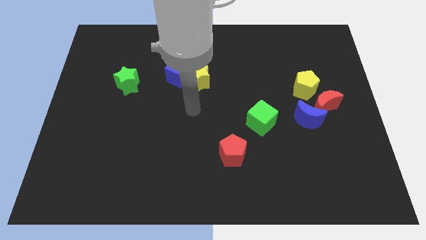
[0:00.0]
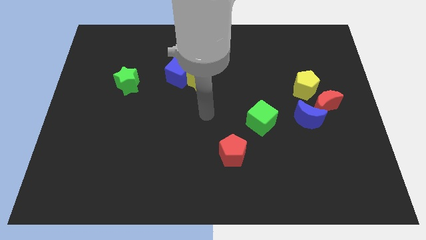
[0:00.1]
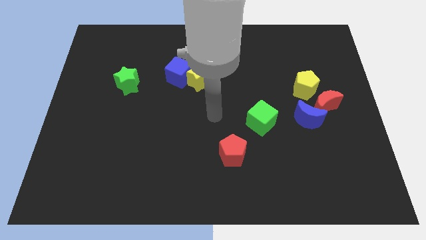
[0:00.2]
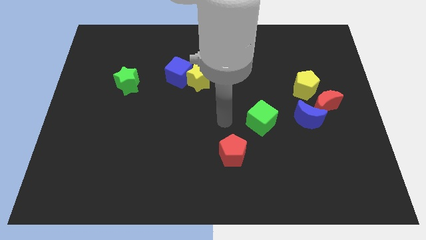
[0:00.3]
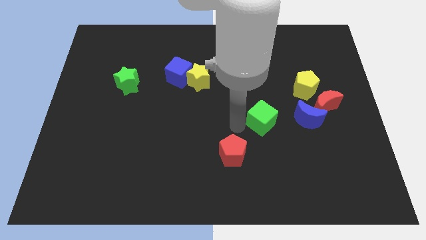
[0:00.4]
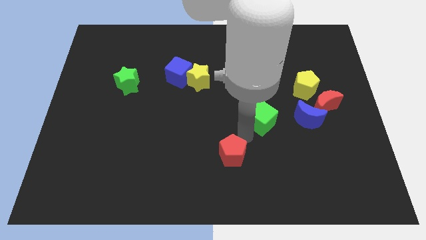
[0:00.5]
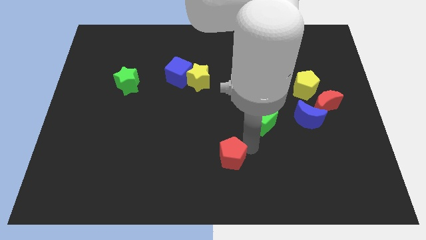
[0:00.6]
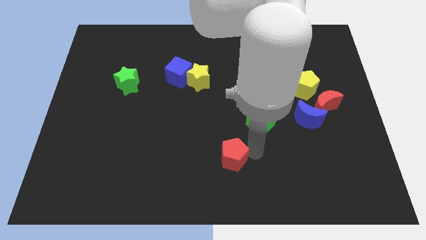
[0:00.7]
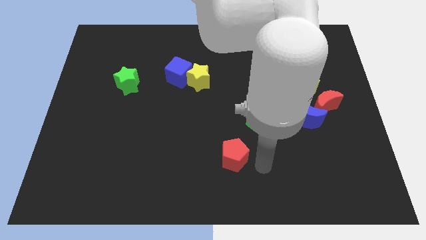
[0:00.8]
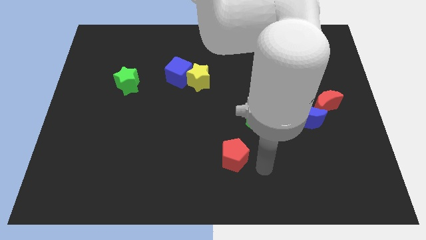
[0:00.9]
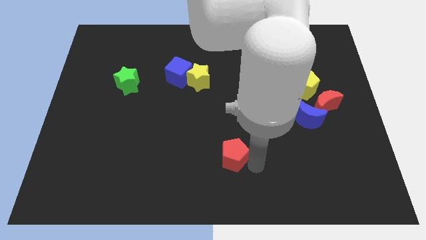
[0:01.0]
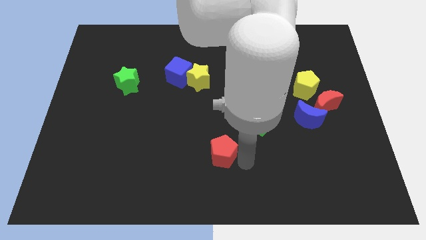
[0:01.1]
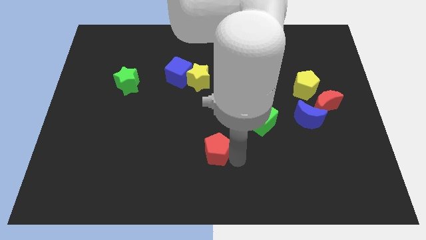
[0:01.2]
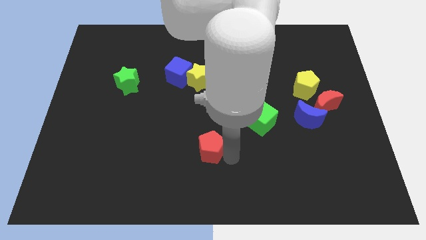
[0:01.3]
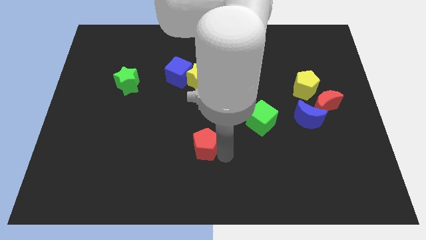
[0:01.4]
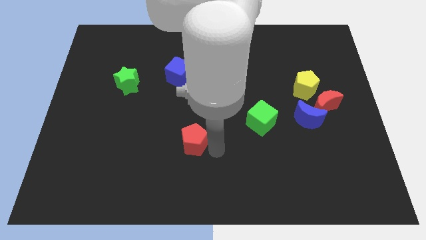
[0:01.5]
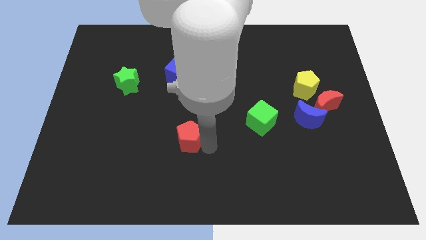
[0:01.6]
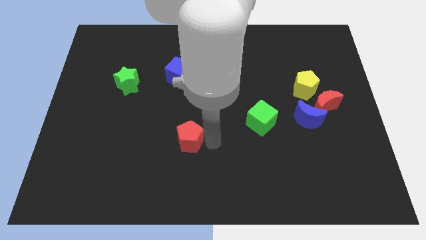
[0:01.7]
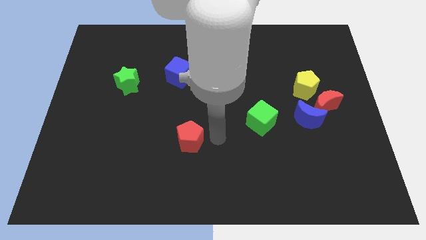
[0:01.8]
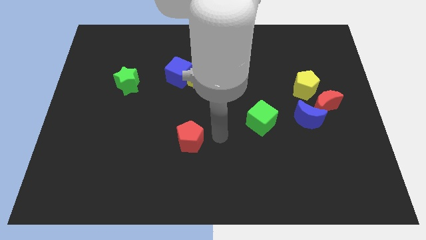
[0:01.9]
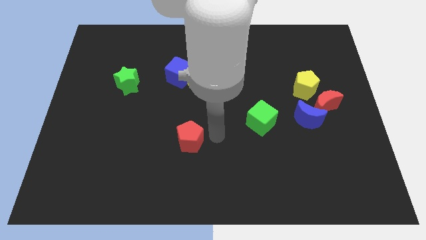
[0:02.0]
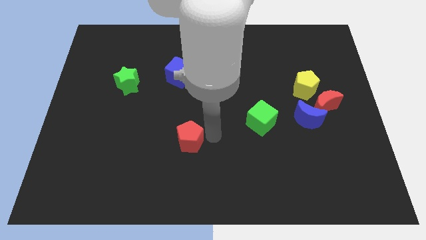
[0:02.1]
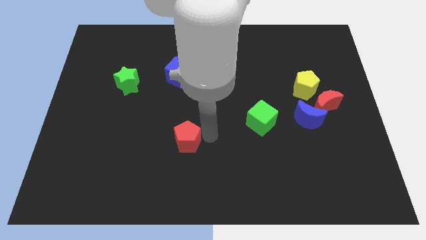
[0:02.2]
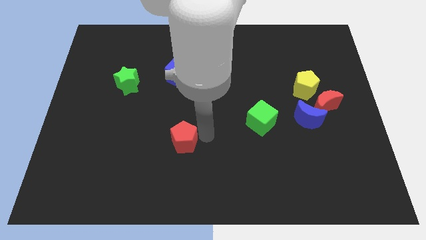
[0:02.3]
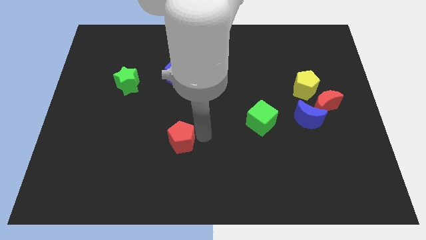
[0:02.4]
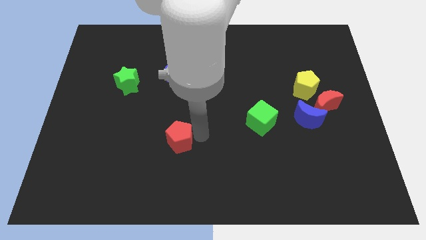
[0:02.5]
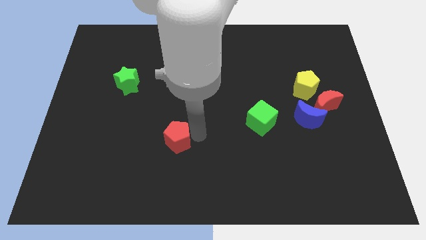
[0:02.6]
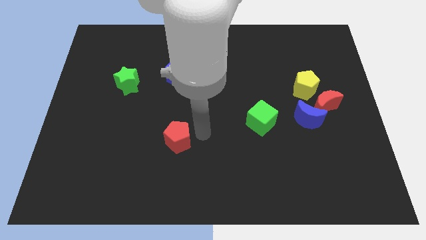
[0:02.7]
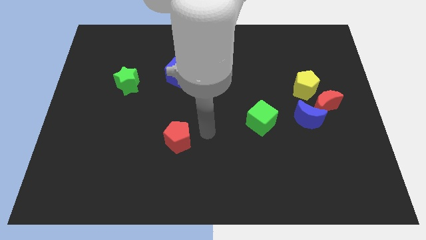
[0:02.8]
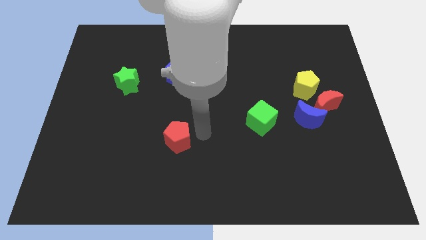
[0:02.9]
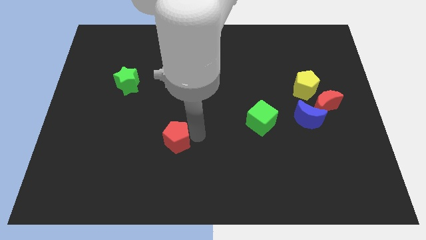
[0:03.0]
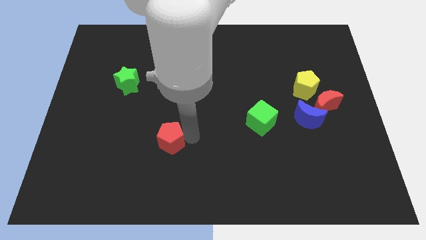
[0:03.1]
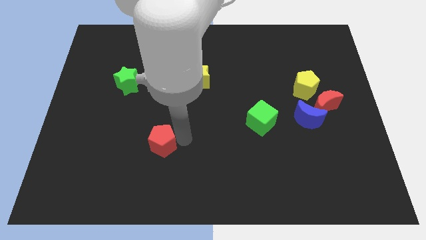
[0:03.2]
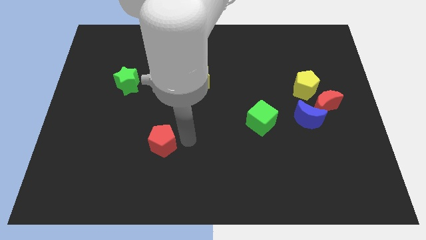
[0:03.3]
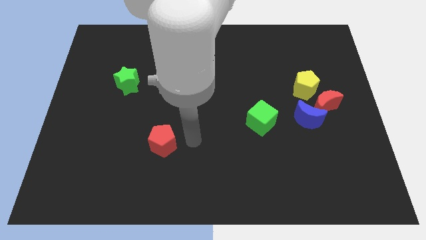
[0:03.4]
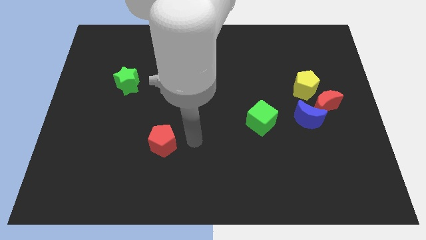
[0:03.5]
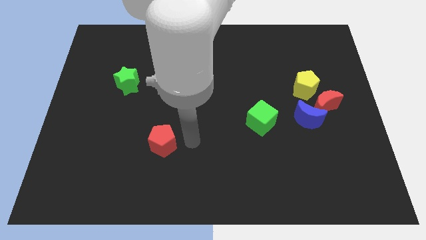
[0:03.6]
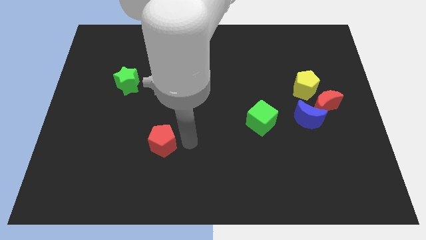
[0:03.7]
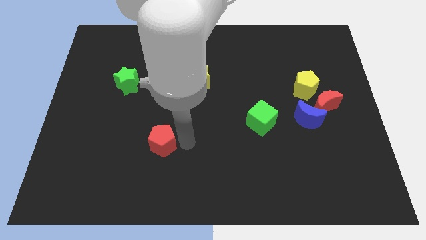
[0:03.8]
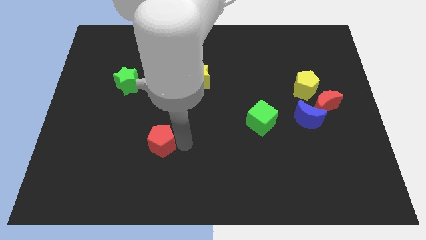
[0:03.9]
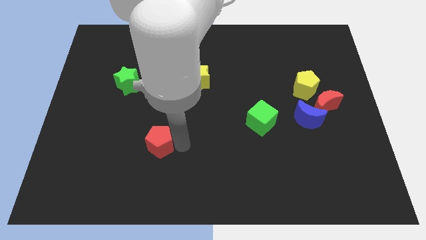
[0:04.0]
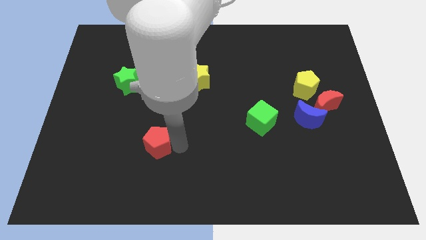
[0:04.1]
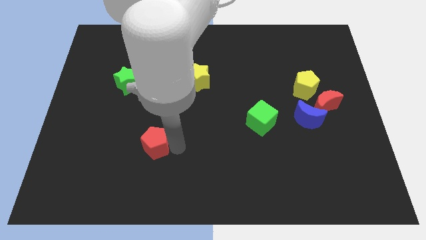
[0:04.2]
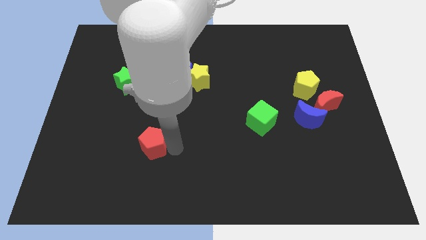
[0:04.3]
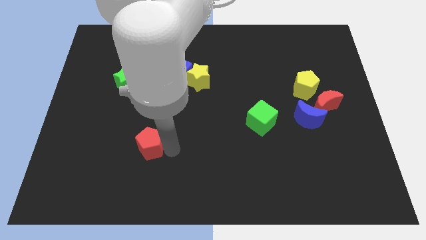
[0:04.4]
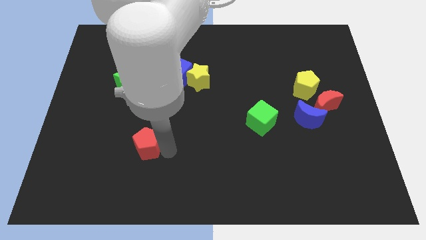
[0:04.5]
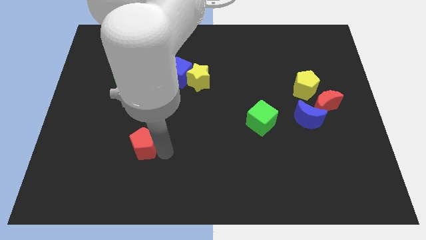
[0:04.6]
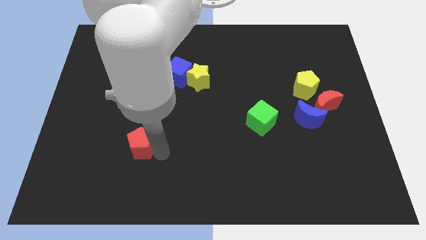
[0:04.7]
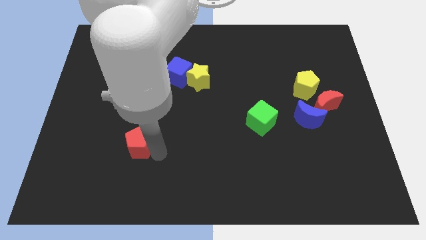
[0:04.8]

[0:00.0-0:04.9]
move the red pentagon to the left

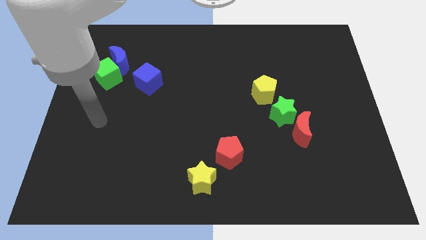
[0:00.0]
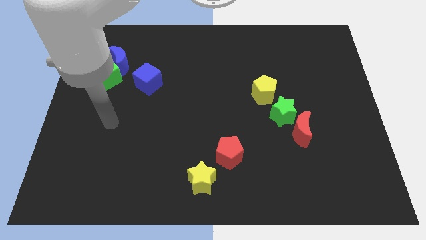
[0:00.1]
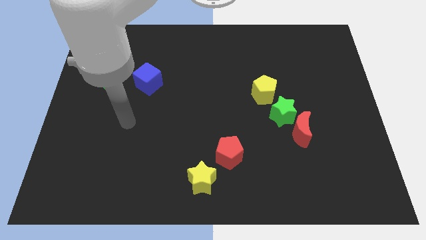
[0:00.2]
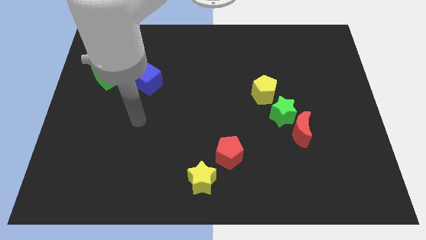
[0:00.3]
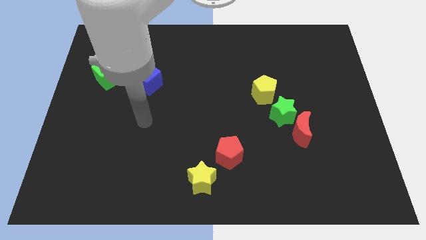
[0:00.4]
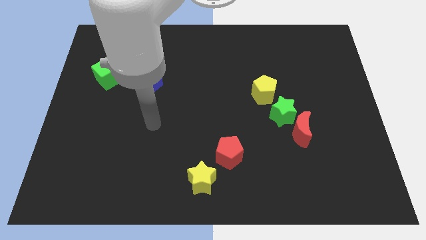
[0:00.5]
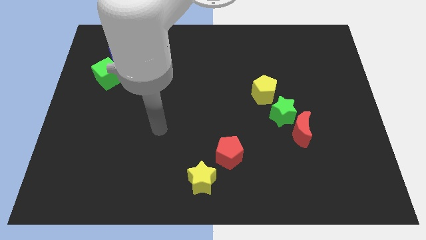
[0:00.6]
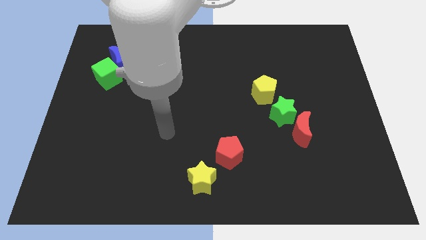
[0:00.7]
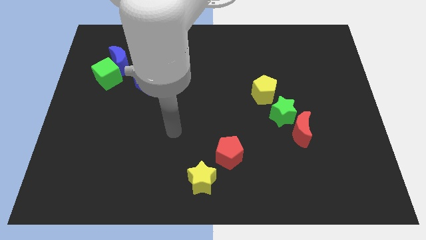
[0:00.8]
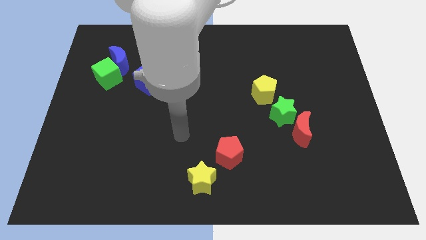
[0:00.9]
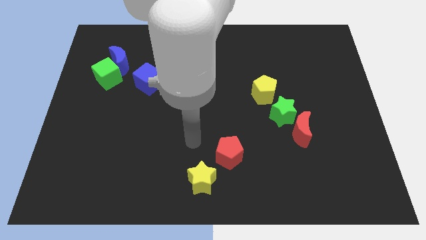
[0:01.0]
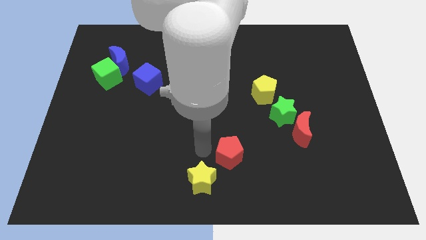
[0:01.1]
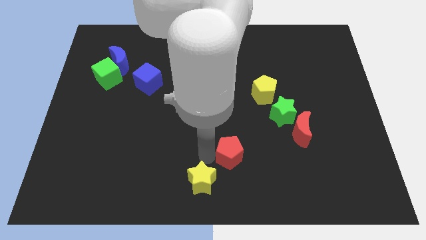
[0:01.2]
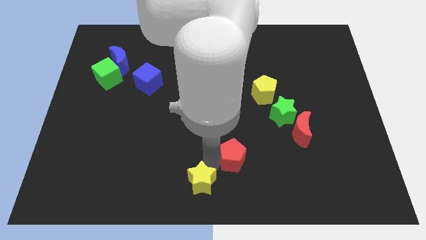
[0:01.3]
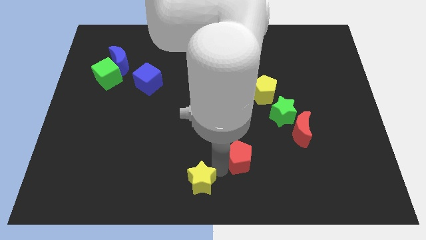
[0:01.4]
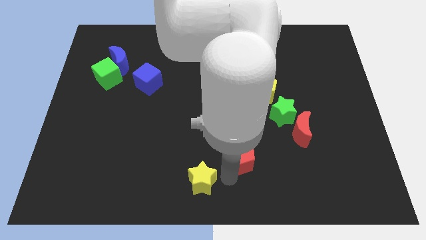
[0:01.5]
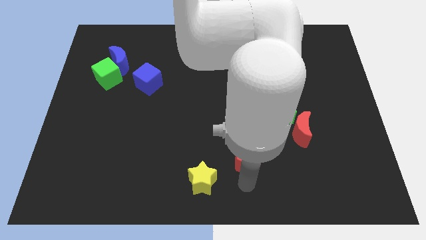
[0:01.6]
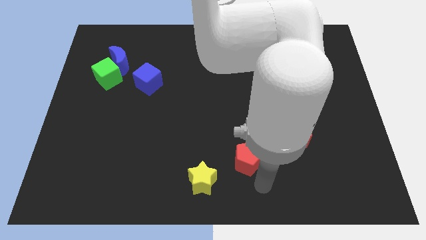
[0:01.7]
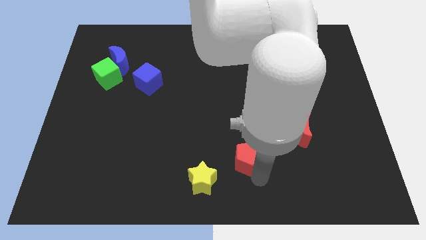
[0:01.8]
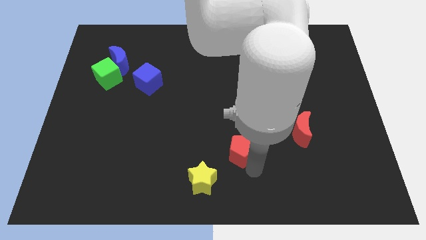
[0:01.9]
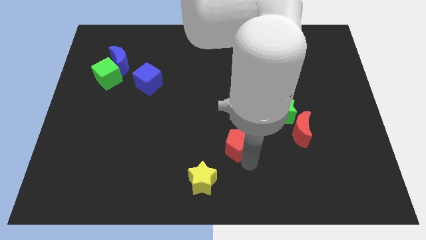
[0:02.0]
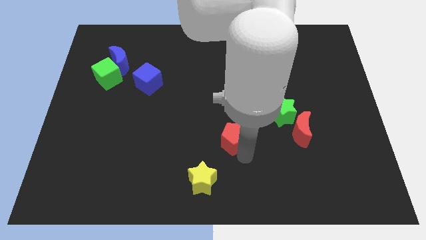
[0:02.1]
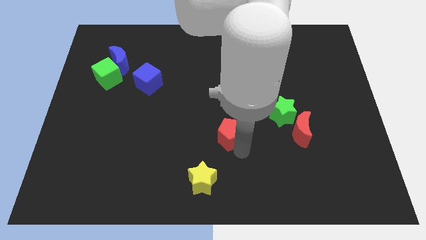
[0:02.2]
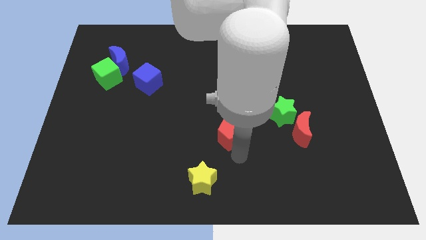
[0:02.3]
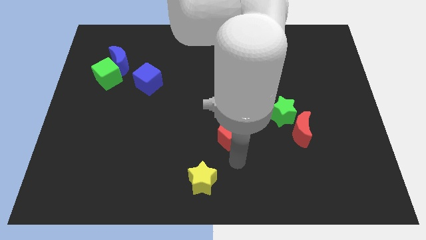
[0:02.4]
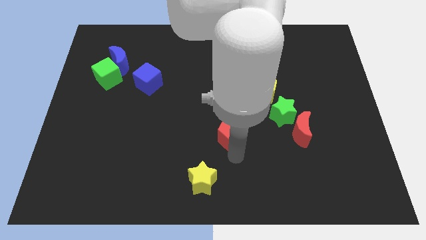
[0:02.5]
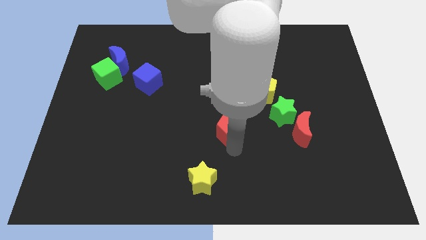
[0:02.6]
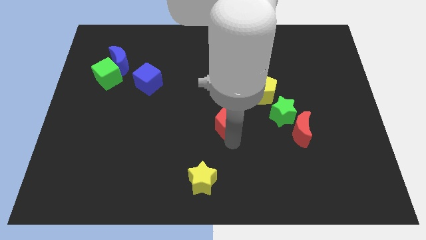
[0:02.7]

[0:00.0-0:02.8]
slightly push the red pentagon upwards

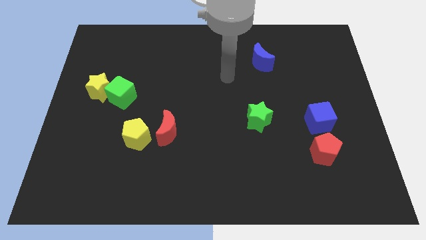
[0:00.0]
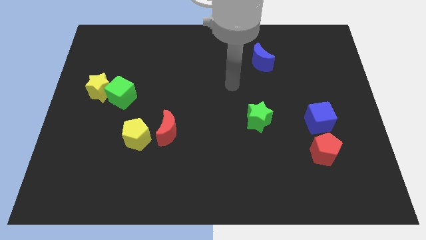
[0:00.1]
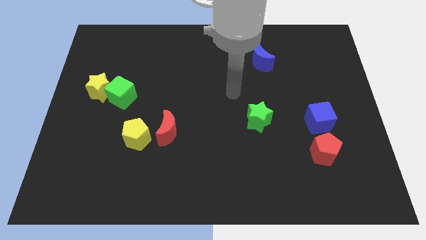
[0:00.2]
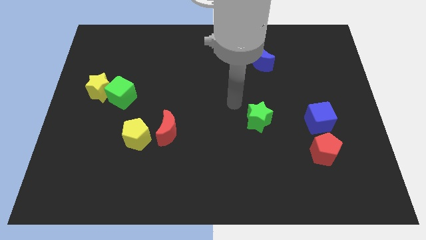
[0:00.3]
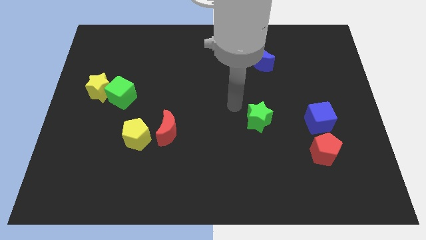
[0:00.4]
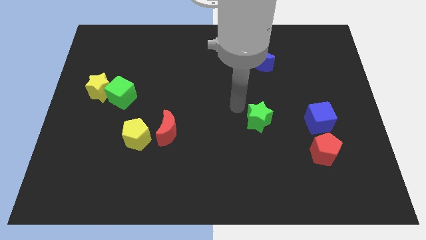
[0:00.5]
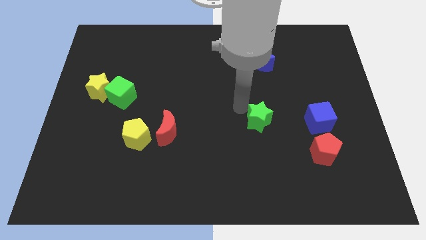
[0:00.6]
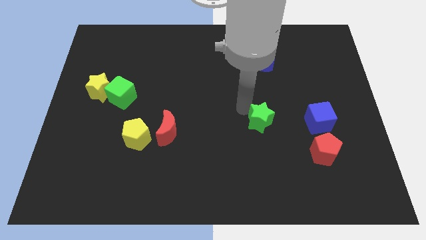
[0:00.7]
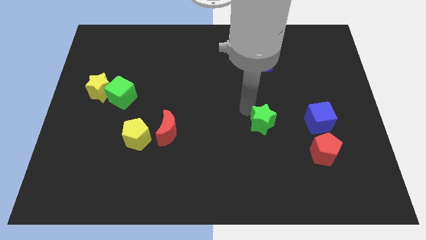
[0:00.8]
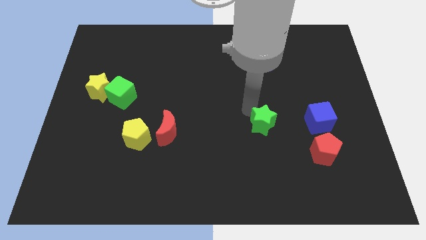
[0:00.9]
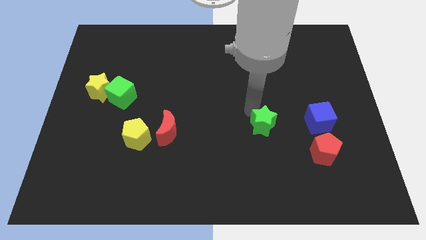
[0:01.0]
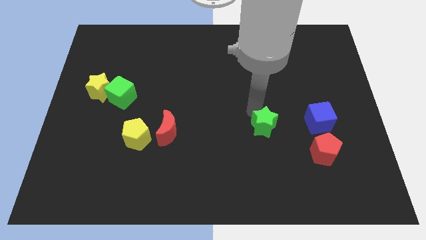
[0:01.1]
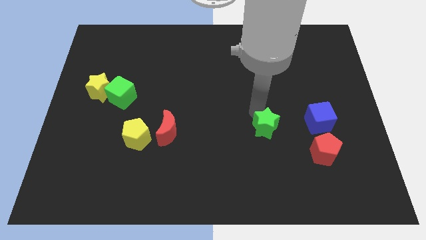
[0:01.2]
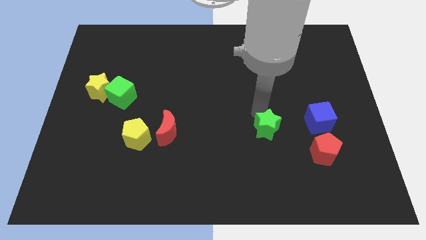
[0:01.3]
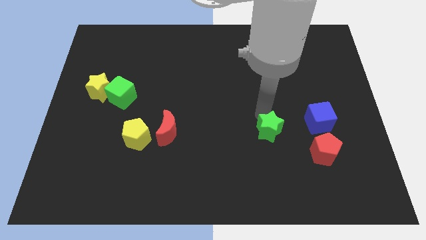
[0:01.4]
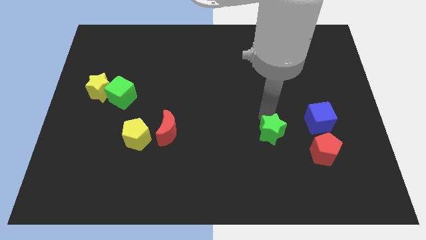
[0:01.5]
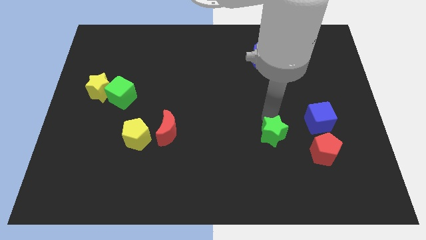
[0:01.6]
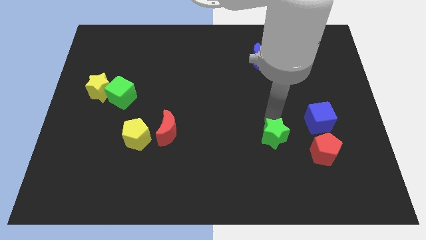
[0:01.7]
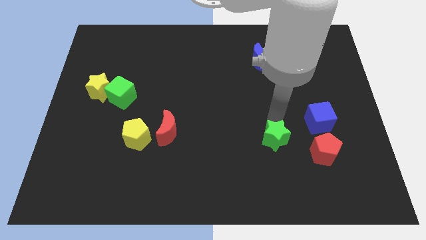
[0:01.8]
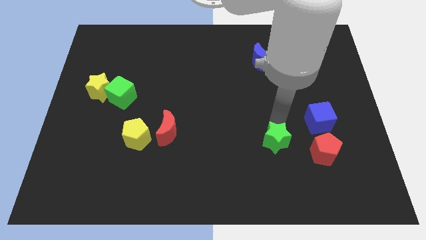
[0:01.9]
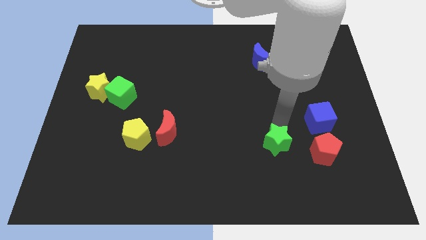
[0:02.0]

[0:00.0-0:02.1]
slightly move the green star down and right
